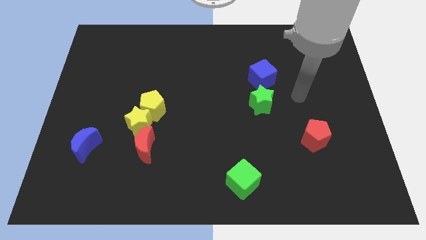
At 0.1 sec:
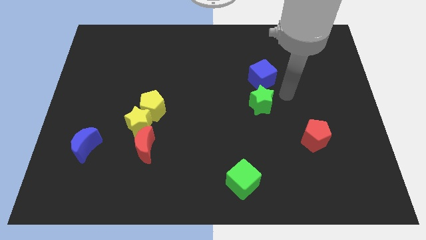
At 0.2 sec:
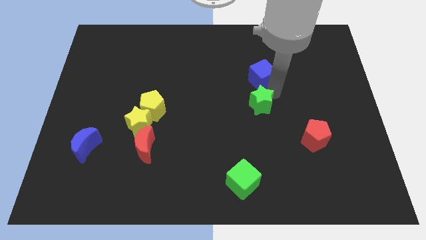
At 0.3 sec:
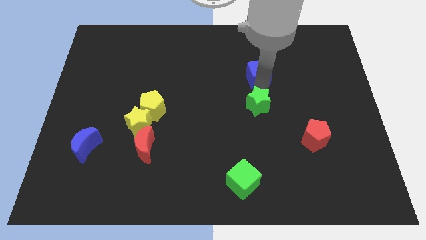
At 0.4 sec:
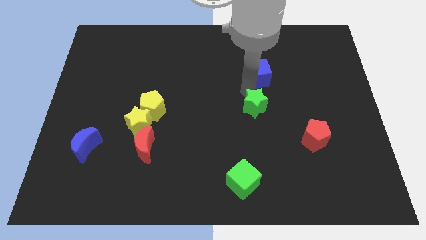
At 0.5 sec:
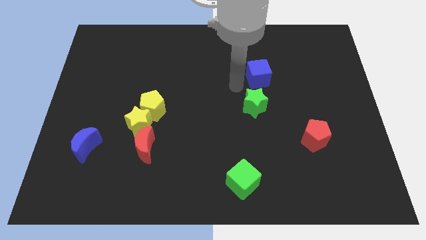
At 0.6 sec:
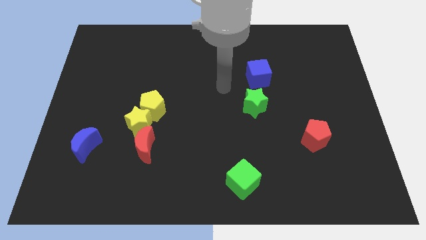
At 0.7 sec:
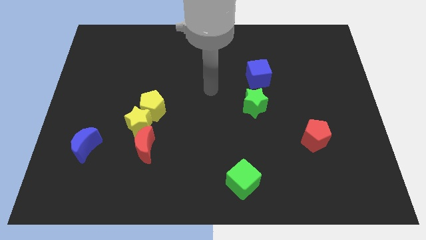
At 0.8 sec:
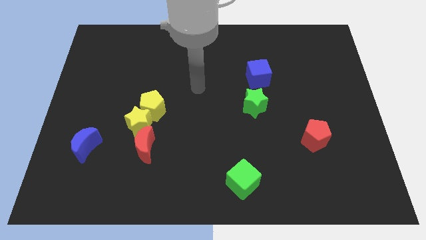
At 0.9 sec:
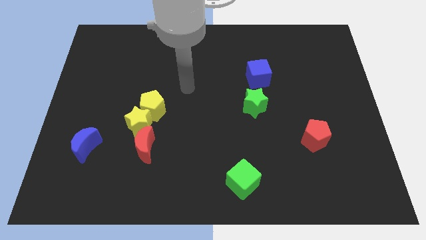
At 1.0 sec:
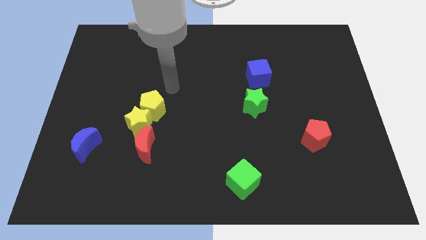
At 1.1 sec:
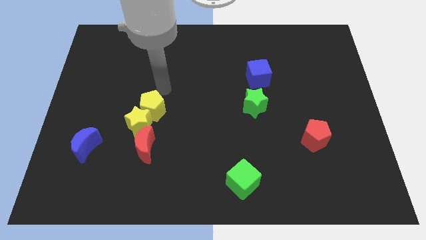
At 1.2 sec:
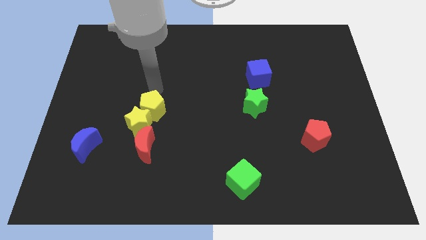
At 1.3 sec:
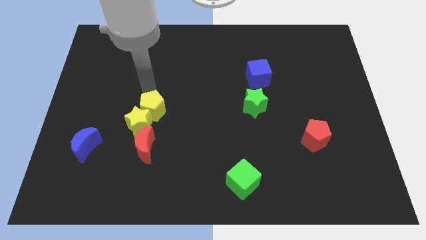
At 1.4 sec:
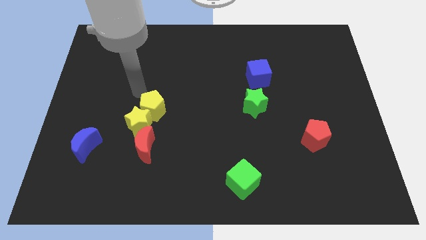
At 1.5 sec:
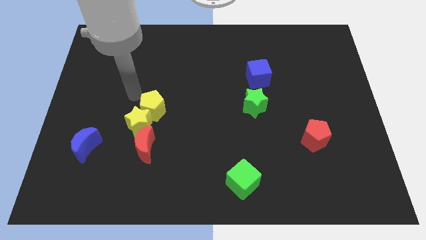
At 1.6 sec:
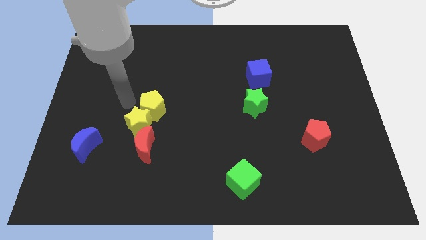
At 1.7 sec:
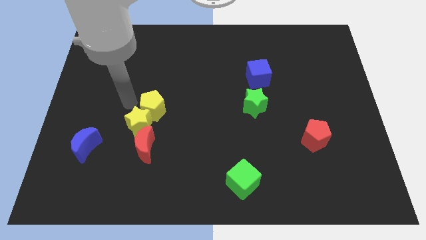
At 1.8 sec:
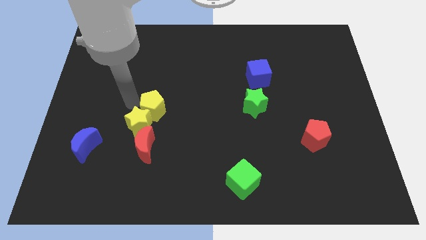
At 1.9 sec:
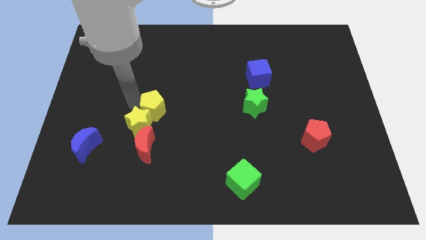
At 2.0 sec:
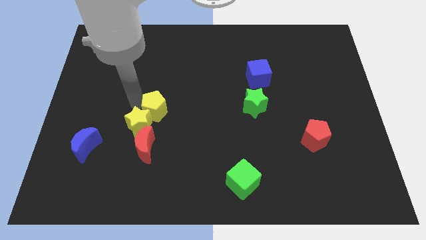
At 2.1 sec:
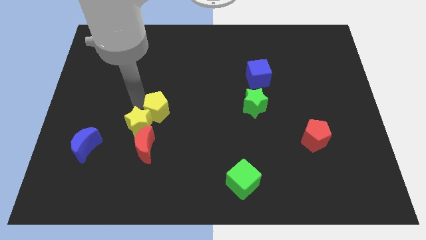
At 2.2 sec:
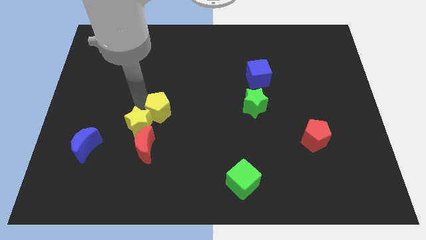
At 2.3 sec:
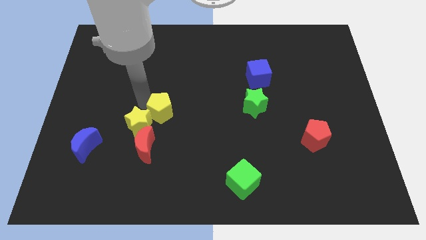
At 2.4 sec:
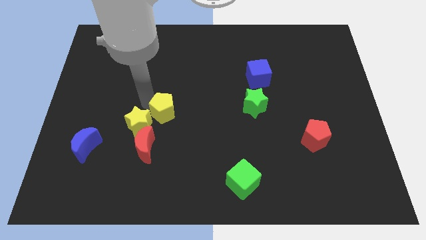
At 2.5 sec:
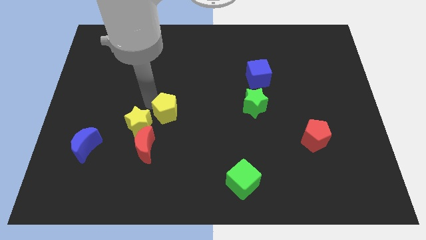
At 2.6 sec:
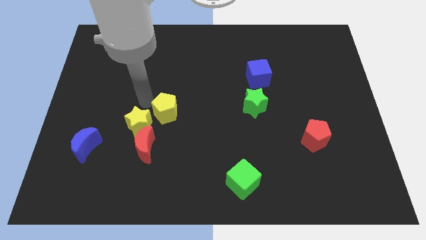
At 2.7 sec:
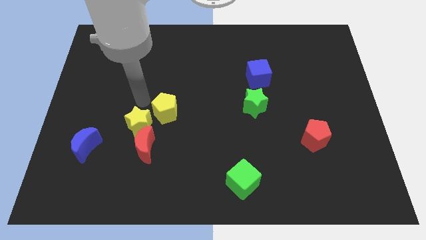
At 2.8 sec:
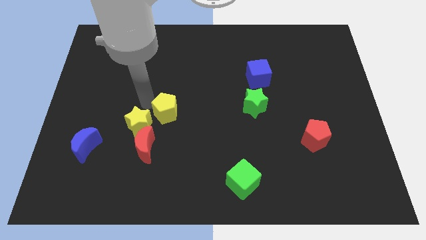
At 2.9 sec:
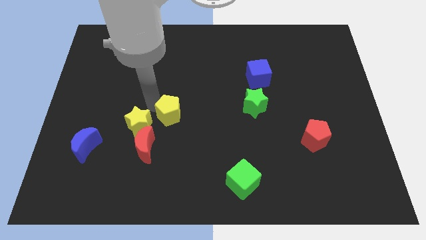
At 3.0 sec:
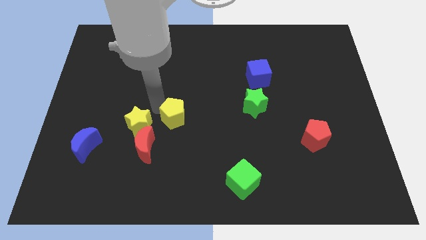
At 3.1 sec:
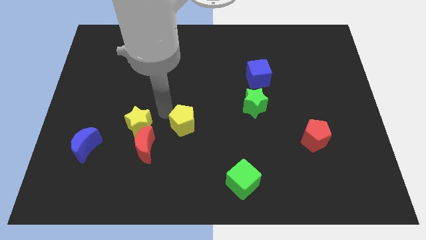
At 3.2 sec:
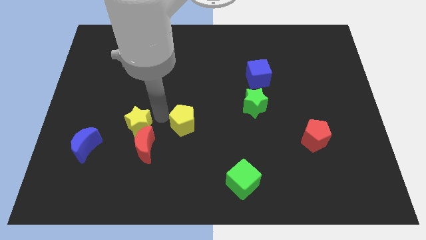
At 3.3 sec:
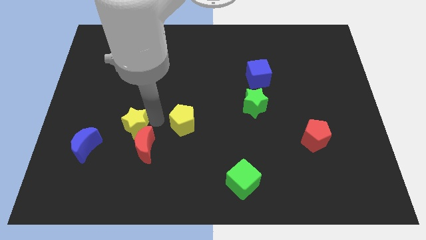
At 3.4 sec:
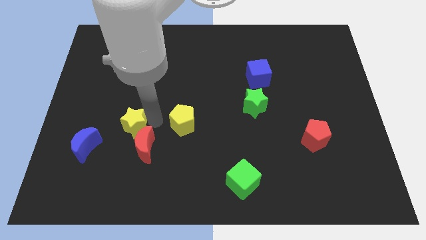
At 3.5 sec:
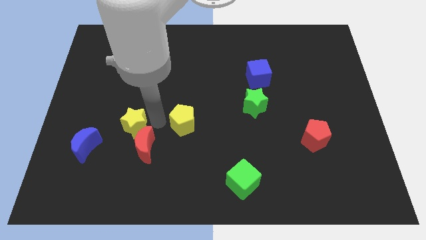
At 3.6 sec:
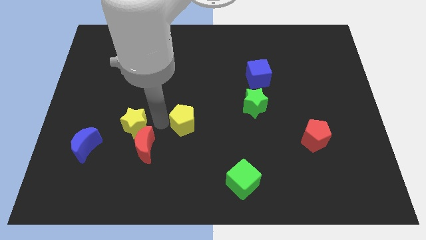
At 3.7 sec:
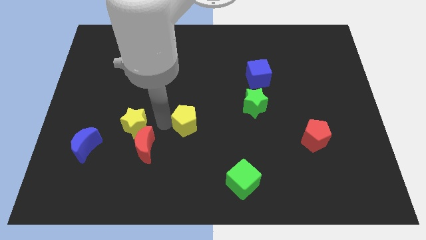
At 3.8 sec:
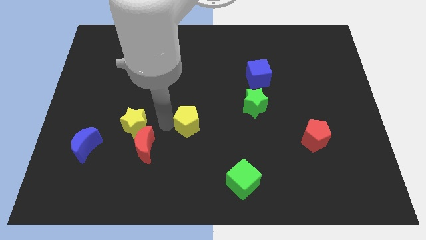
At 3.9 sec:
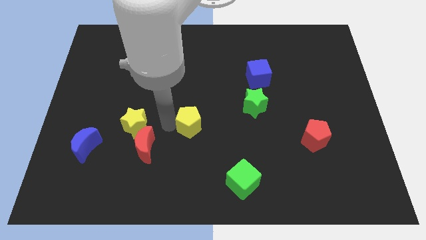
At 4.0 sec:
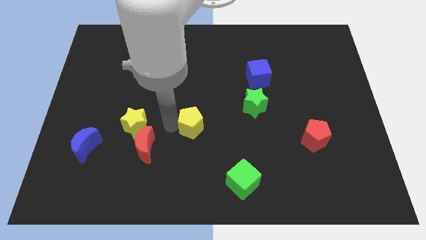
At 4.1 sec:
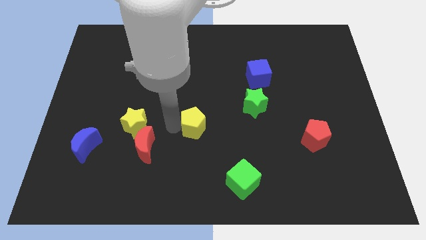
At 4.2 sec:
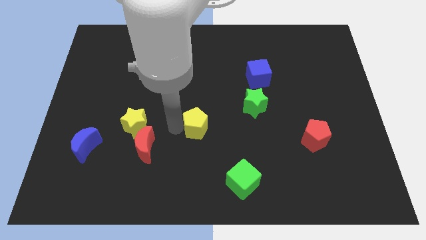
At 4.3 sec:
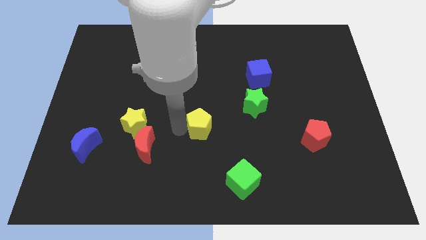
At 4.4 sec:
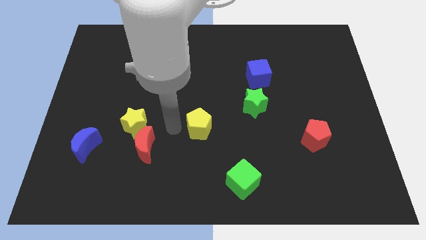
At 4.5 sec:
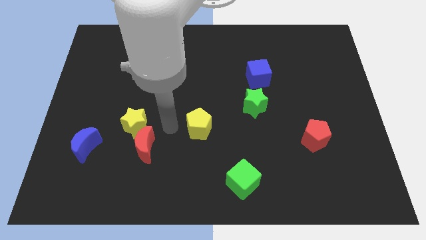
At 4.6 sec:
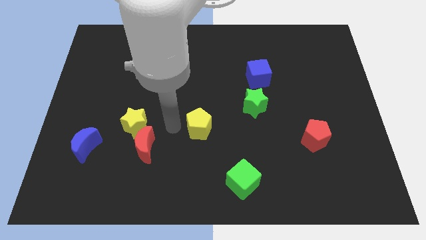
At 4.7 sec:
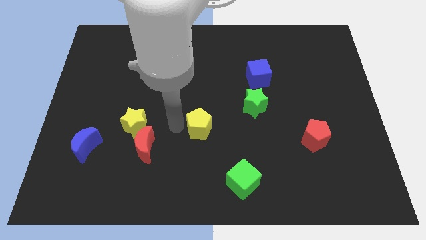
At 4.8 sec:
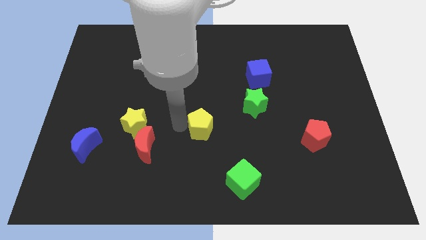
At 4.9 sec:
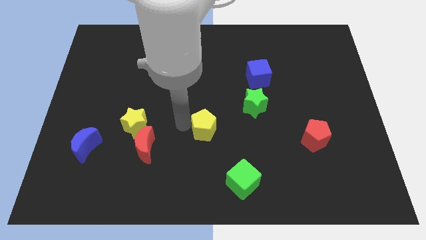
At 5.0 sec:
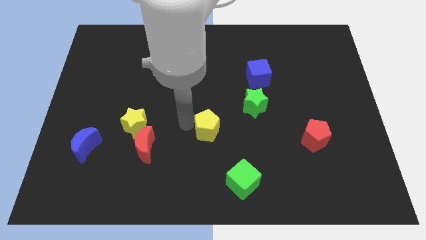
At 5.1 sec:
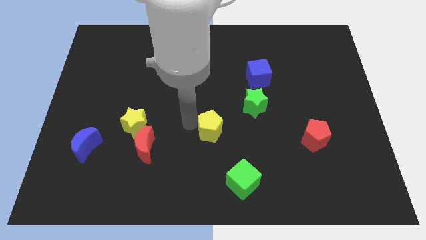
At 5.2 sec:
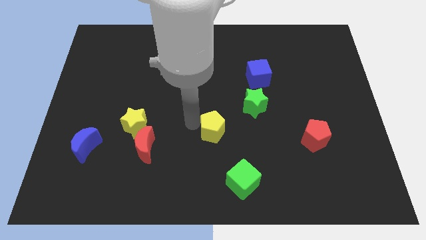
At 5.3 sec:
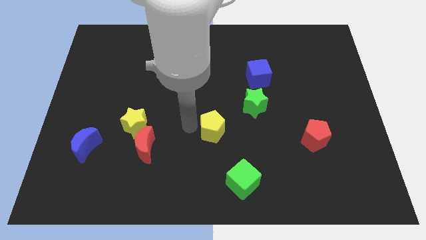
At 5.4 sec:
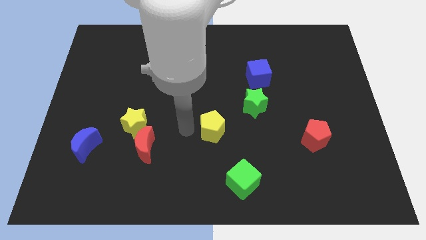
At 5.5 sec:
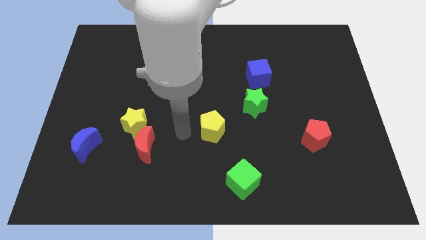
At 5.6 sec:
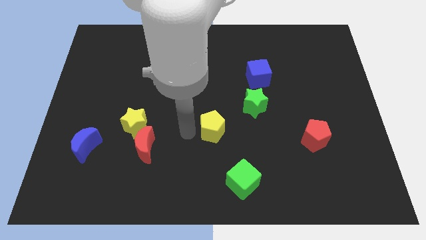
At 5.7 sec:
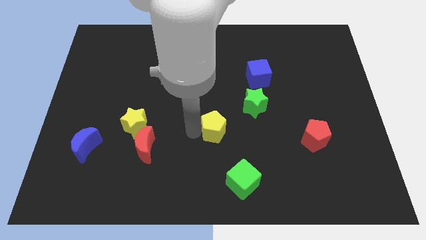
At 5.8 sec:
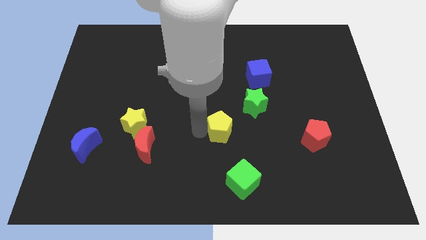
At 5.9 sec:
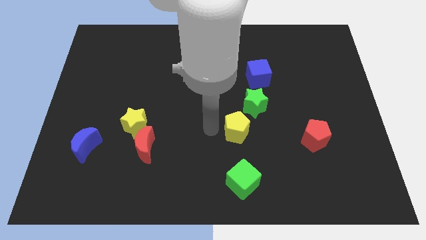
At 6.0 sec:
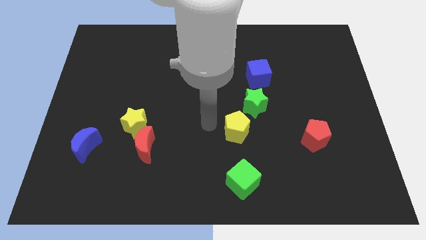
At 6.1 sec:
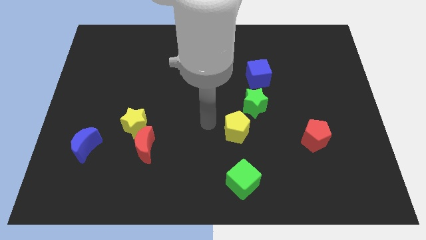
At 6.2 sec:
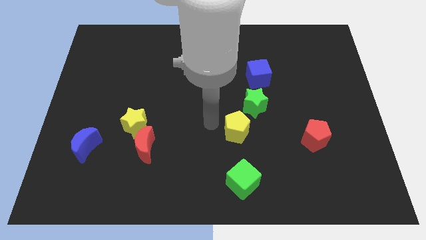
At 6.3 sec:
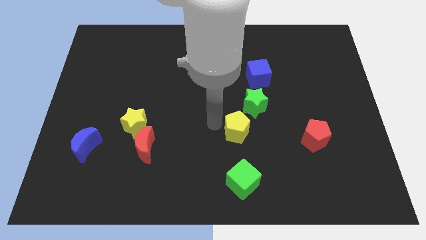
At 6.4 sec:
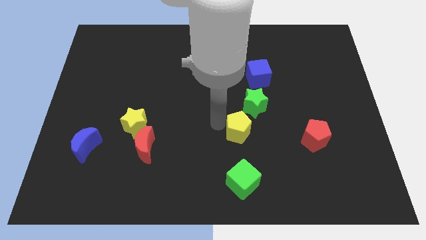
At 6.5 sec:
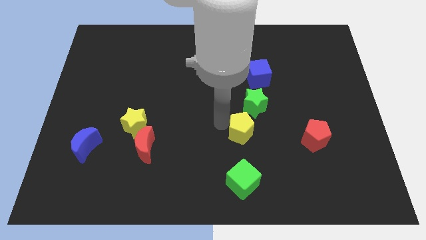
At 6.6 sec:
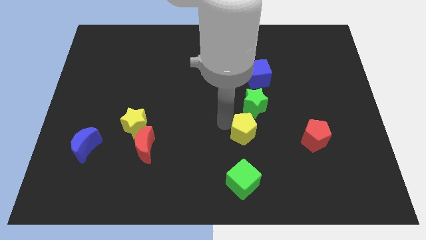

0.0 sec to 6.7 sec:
push the yellow pentagon to the left side of the red pentagon

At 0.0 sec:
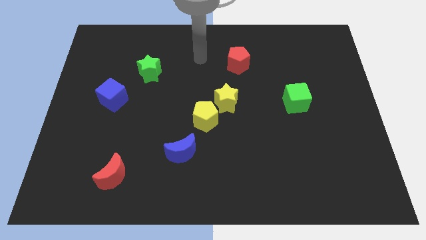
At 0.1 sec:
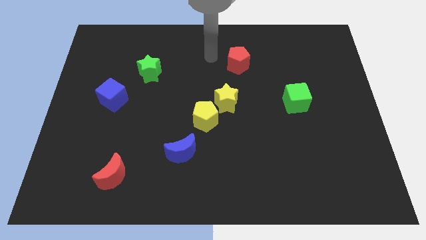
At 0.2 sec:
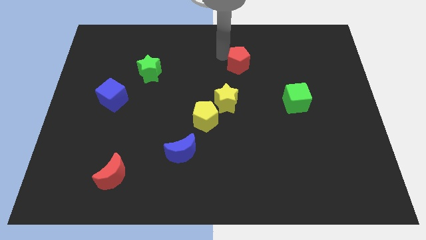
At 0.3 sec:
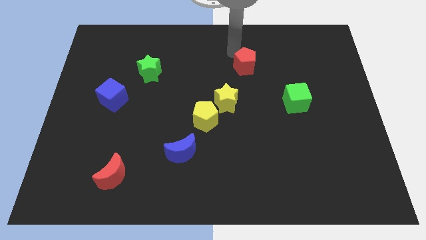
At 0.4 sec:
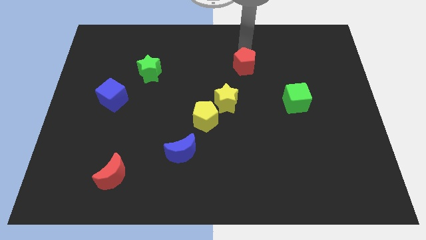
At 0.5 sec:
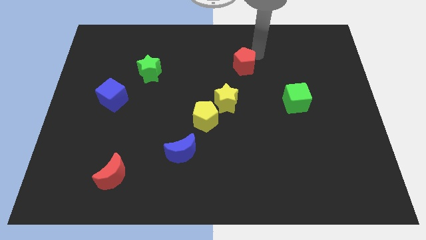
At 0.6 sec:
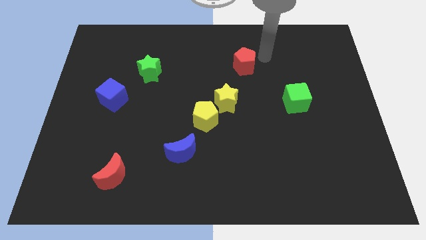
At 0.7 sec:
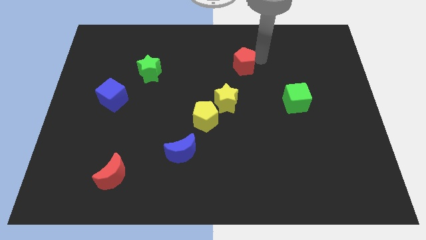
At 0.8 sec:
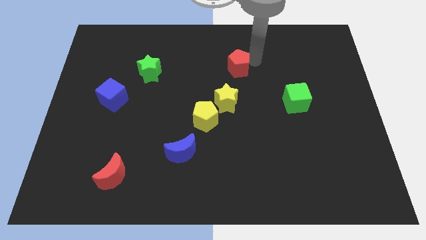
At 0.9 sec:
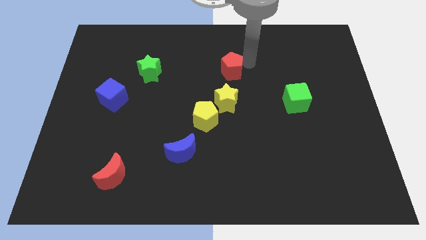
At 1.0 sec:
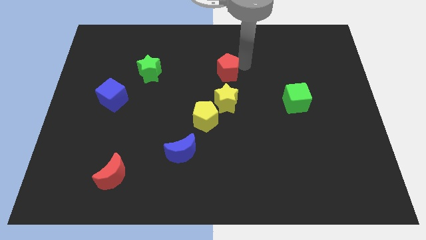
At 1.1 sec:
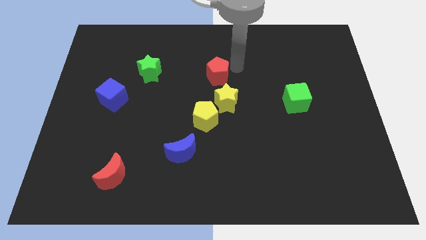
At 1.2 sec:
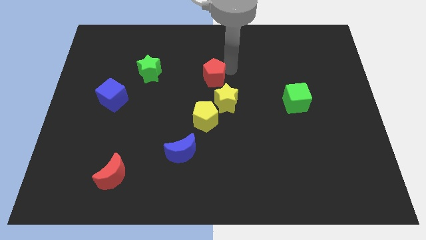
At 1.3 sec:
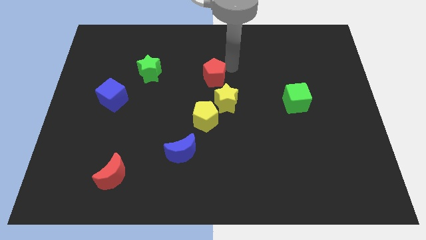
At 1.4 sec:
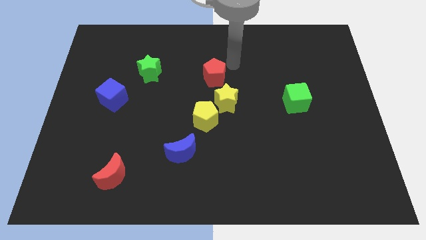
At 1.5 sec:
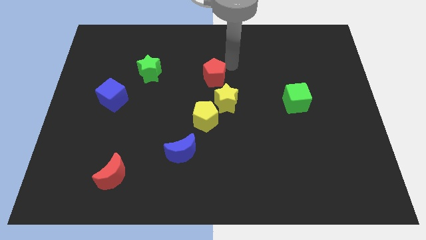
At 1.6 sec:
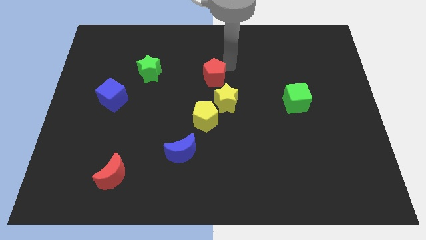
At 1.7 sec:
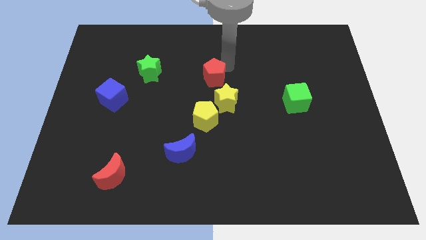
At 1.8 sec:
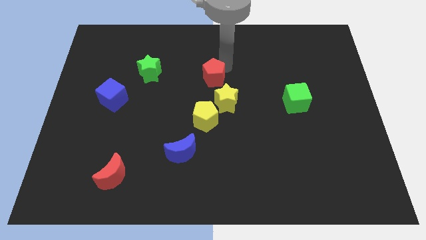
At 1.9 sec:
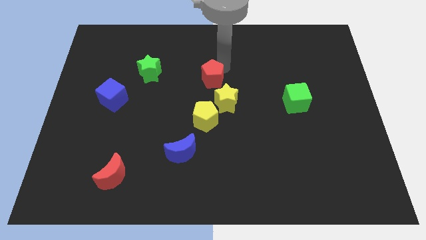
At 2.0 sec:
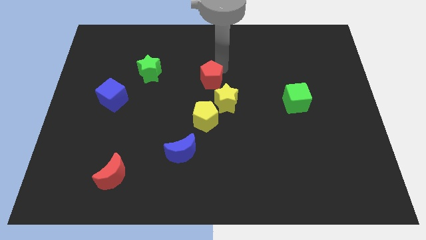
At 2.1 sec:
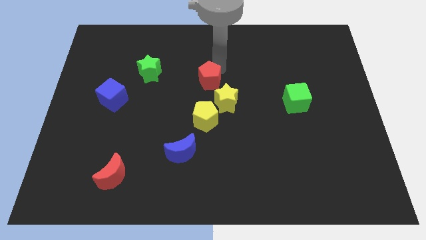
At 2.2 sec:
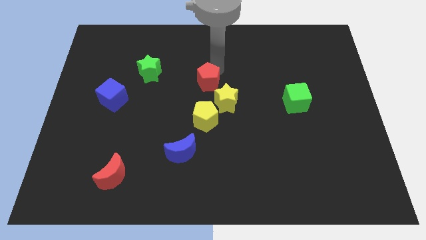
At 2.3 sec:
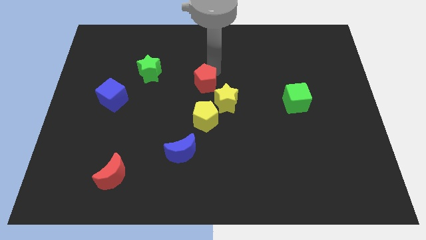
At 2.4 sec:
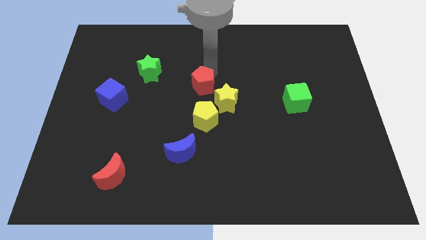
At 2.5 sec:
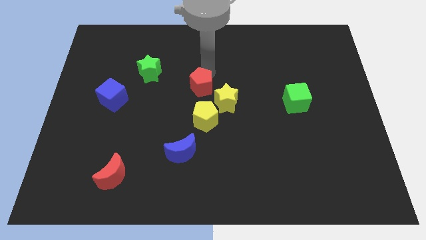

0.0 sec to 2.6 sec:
move the red pentagon to the left of the yellow star
